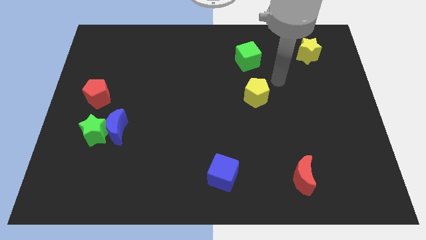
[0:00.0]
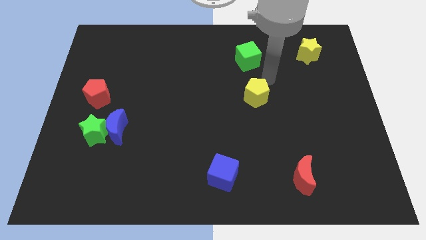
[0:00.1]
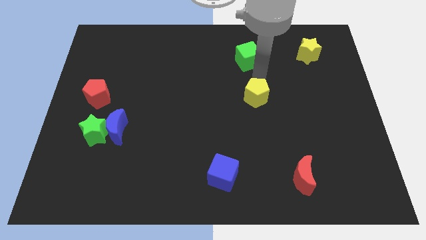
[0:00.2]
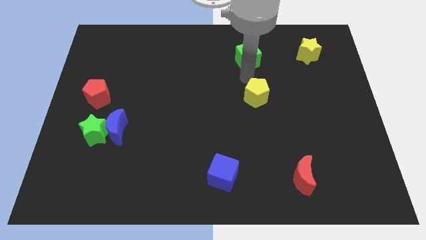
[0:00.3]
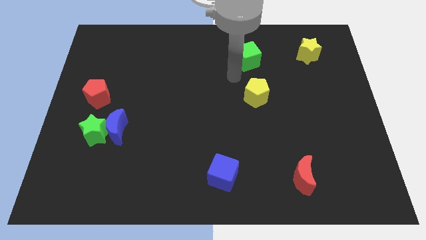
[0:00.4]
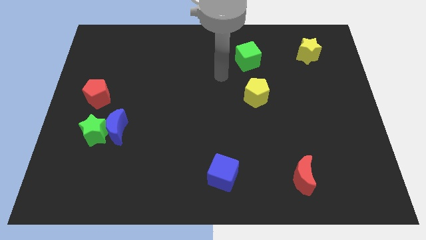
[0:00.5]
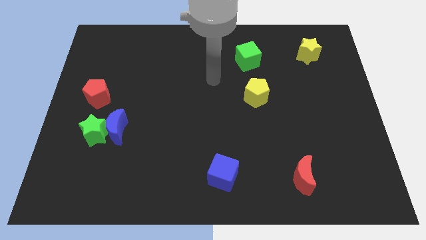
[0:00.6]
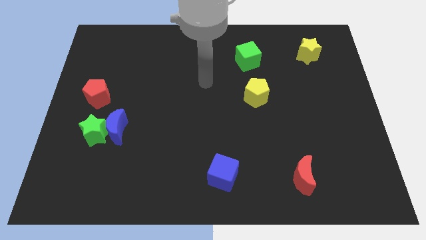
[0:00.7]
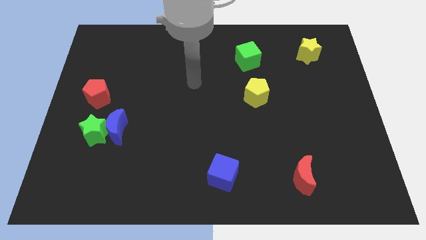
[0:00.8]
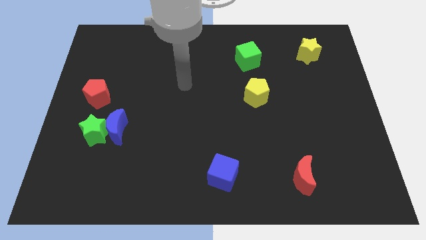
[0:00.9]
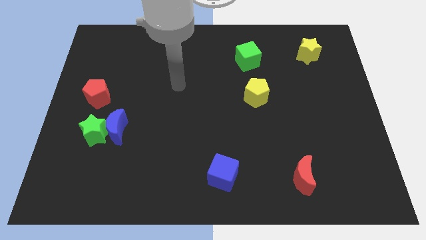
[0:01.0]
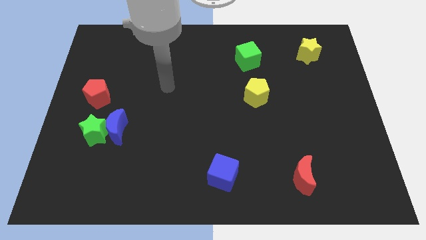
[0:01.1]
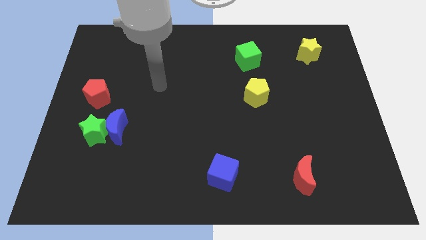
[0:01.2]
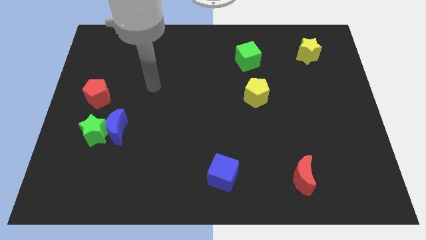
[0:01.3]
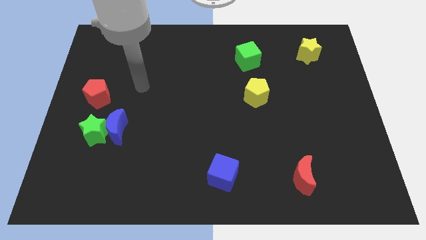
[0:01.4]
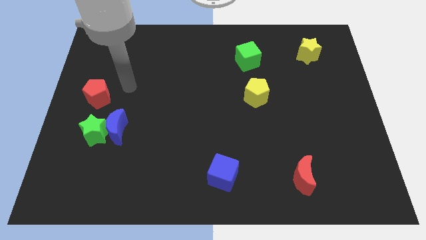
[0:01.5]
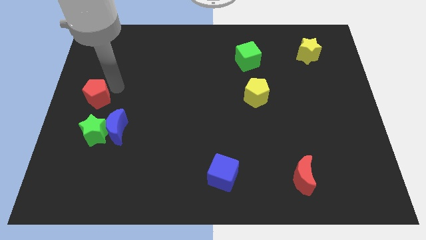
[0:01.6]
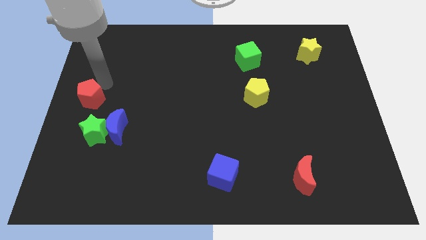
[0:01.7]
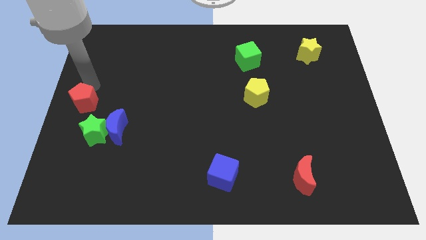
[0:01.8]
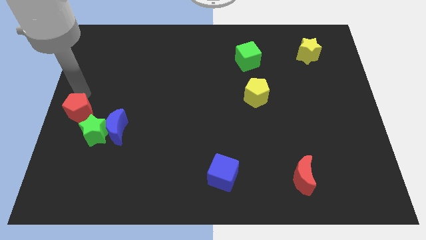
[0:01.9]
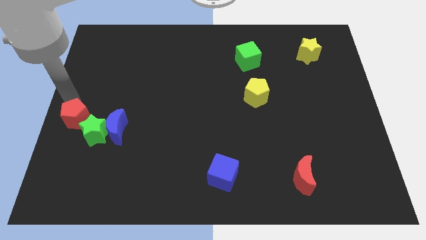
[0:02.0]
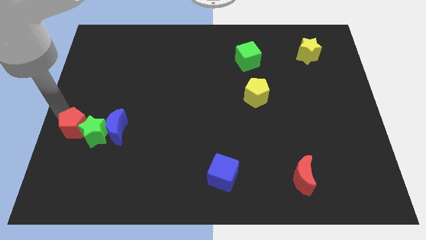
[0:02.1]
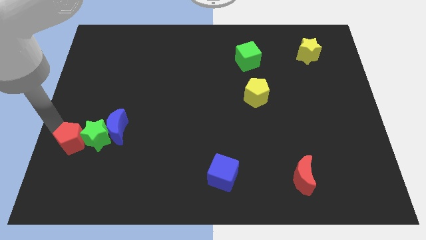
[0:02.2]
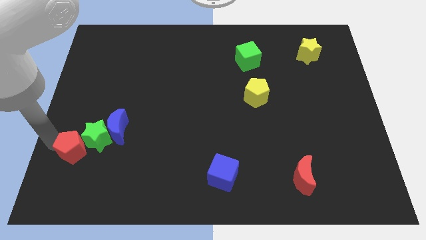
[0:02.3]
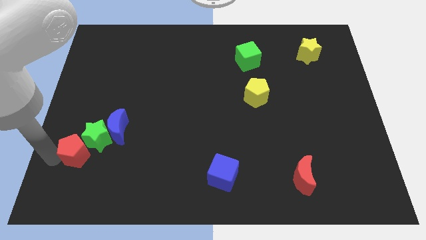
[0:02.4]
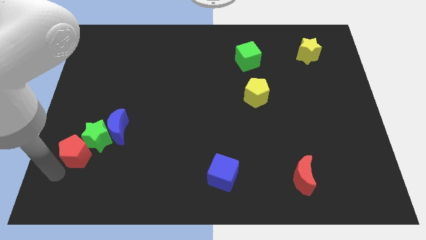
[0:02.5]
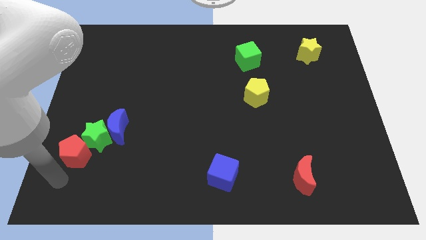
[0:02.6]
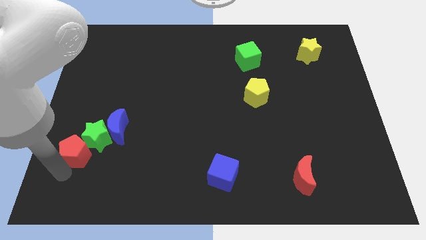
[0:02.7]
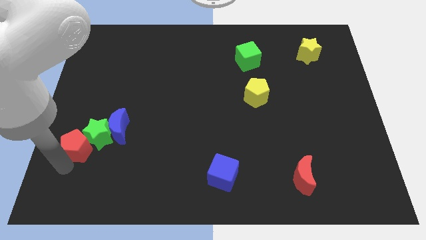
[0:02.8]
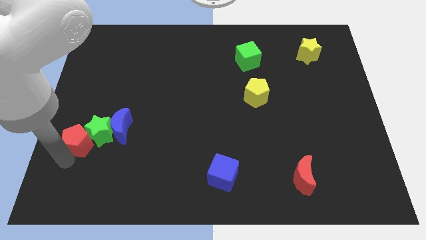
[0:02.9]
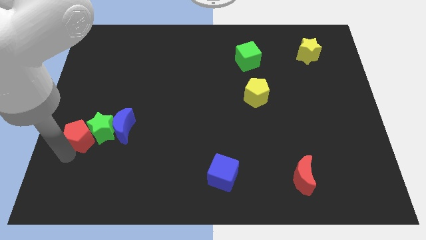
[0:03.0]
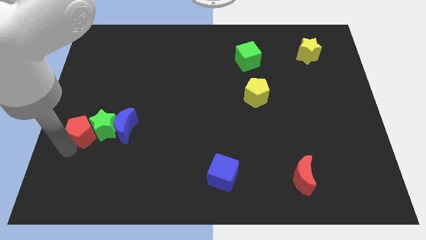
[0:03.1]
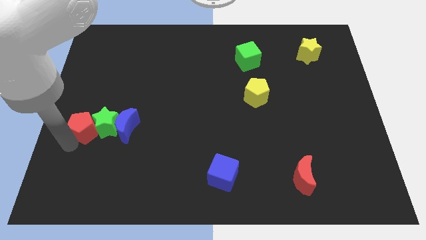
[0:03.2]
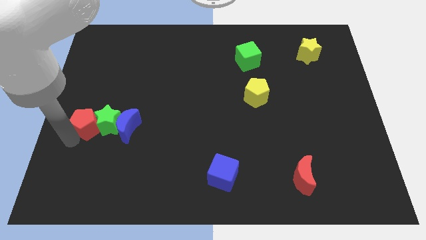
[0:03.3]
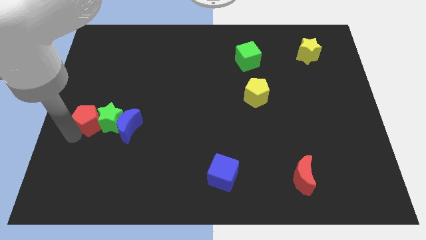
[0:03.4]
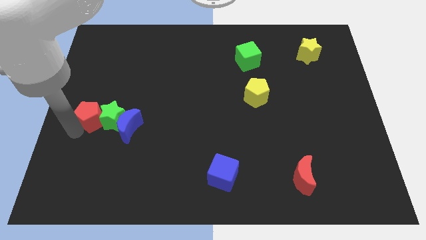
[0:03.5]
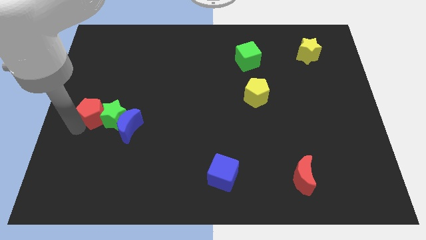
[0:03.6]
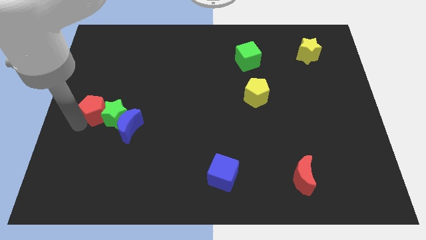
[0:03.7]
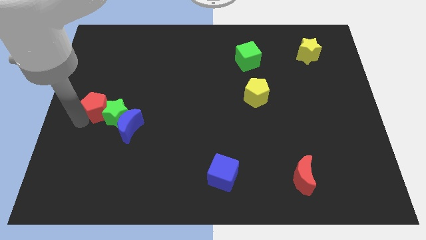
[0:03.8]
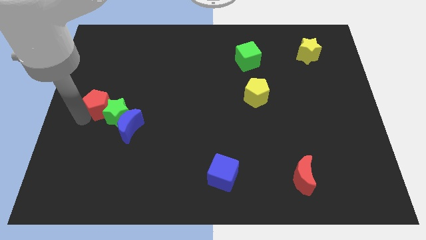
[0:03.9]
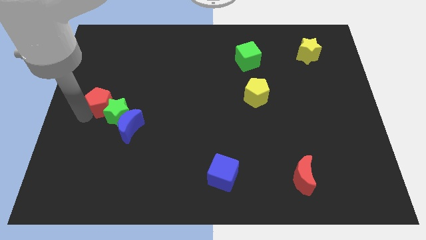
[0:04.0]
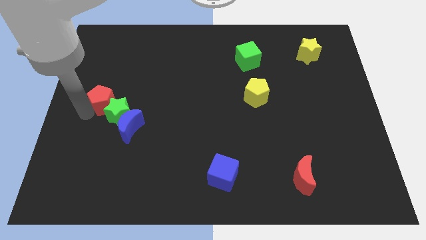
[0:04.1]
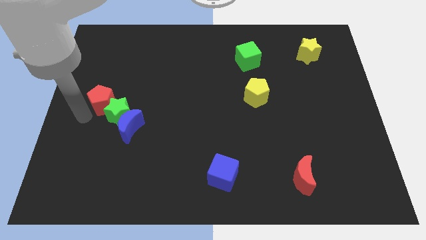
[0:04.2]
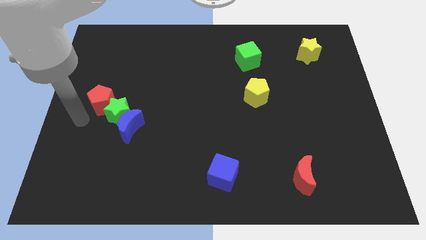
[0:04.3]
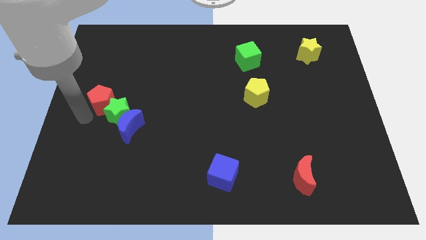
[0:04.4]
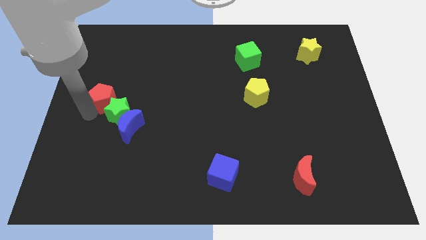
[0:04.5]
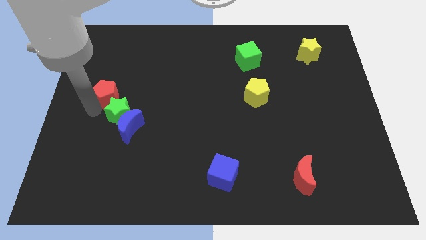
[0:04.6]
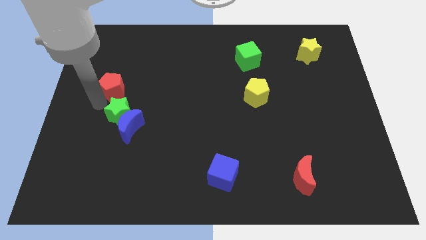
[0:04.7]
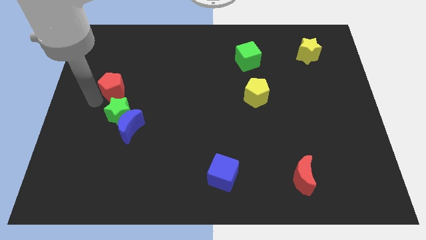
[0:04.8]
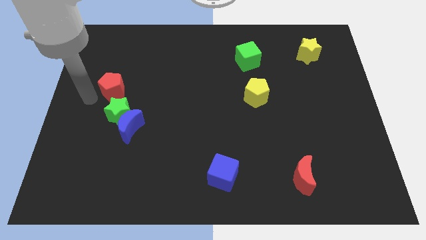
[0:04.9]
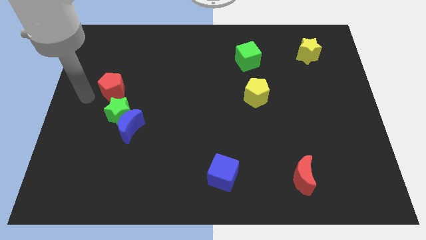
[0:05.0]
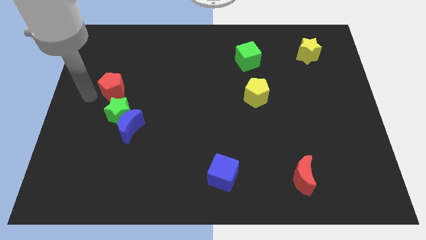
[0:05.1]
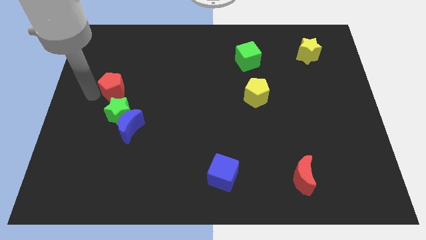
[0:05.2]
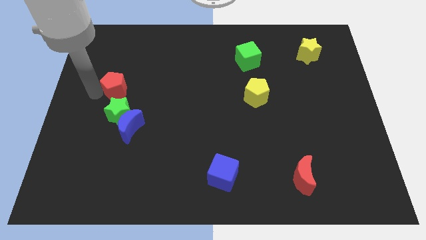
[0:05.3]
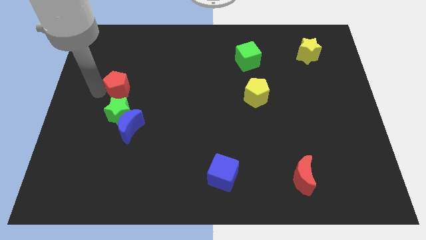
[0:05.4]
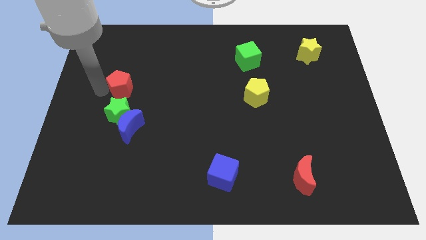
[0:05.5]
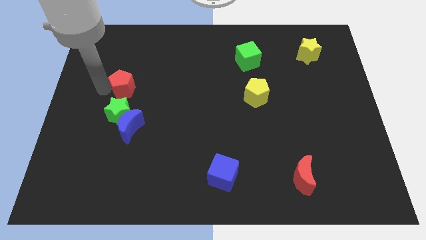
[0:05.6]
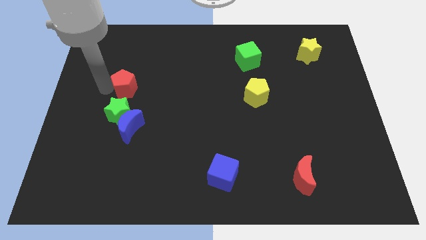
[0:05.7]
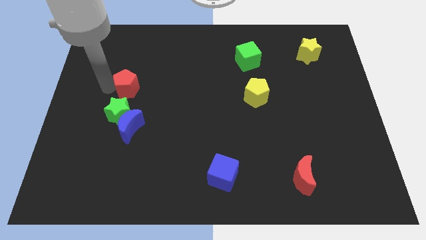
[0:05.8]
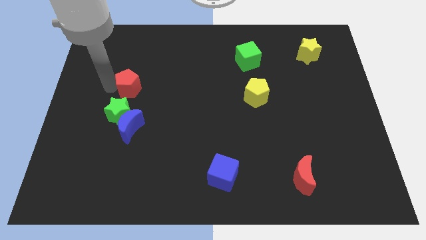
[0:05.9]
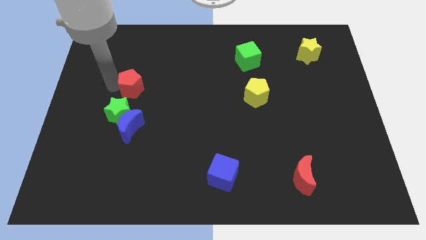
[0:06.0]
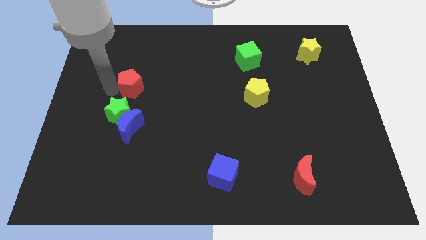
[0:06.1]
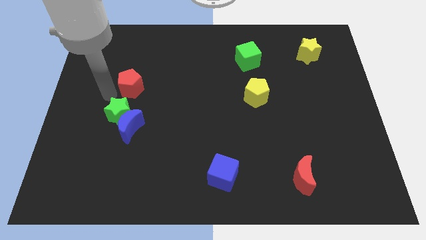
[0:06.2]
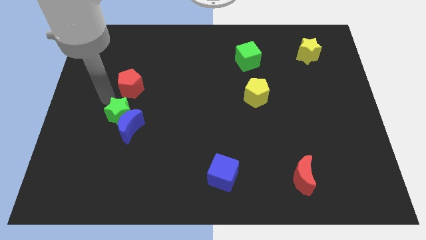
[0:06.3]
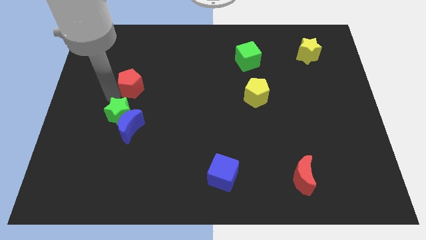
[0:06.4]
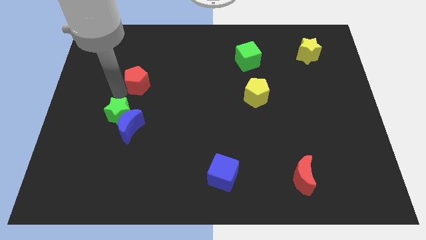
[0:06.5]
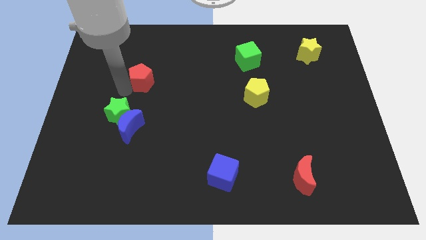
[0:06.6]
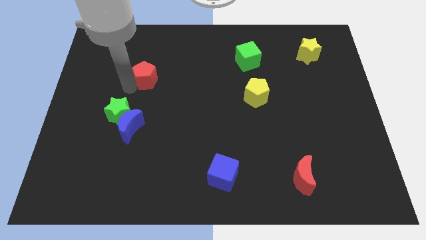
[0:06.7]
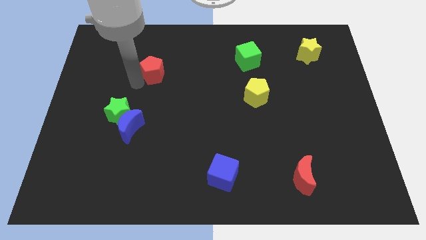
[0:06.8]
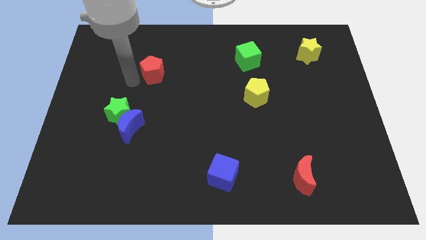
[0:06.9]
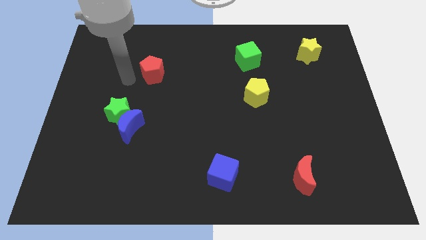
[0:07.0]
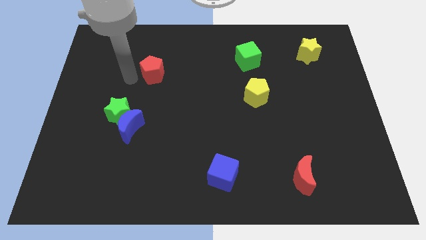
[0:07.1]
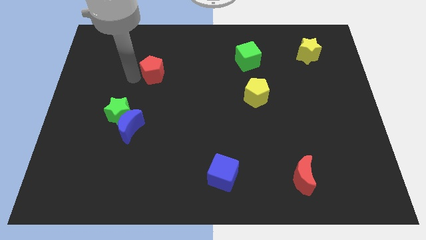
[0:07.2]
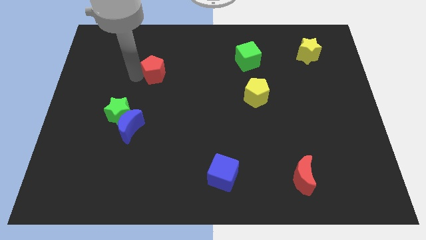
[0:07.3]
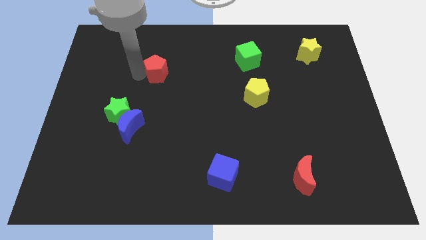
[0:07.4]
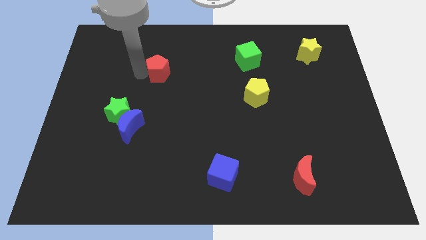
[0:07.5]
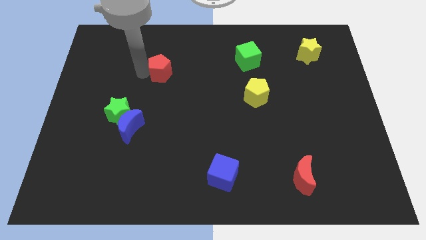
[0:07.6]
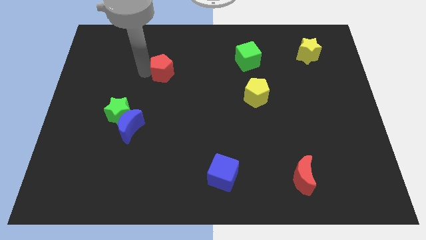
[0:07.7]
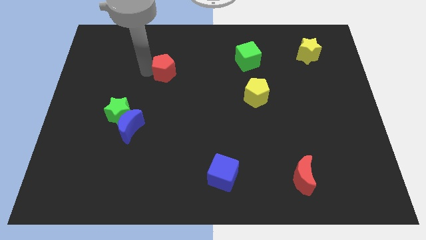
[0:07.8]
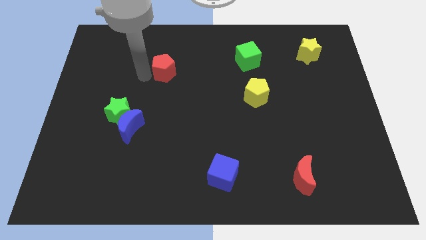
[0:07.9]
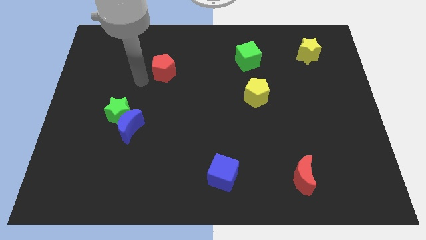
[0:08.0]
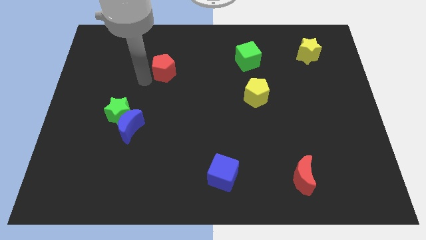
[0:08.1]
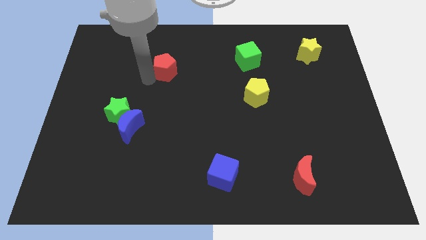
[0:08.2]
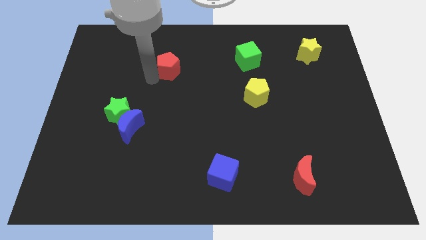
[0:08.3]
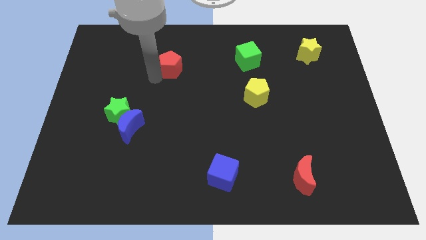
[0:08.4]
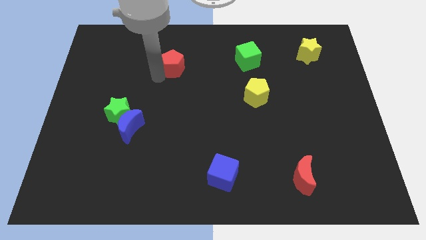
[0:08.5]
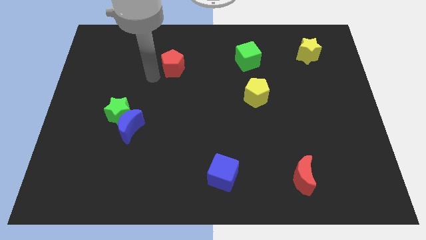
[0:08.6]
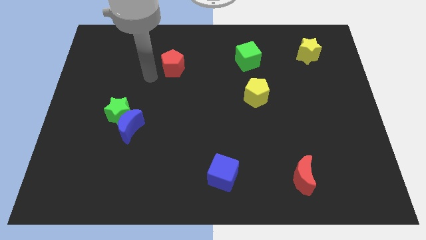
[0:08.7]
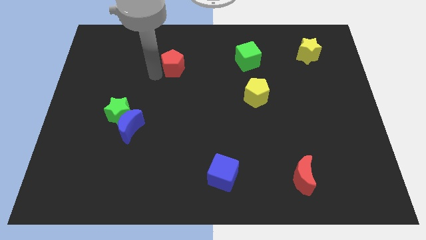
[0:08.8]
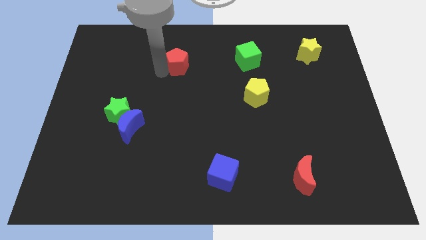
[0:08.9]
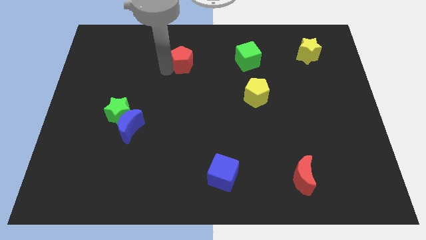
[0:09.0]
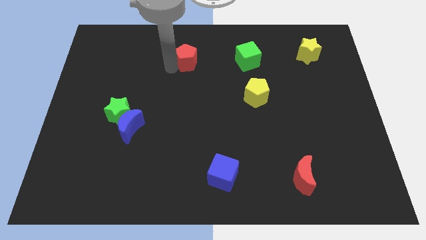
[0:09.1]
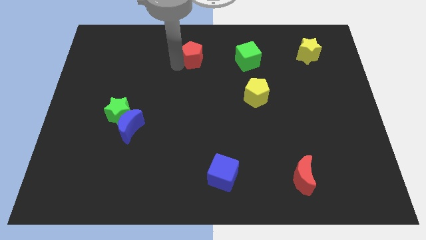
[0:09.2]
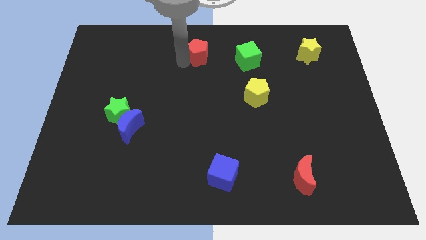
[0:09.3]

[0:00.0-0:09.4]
put the red pentagon to the towards your base
